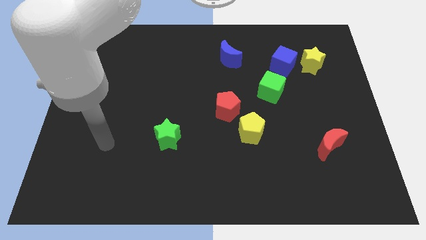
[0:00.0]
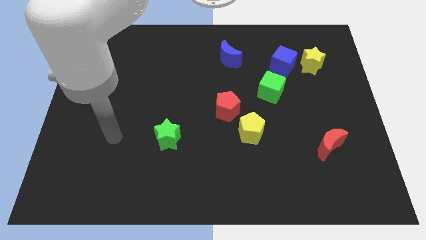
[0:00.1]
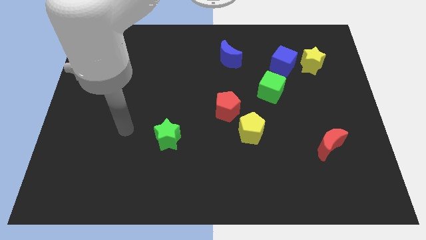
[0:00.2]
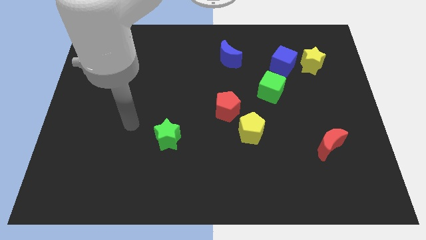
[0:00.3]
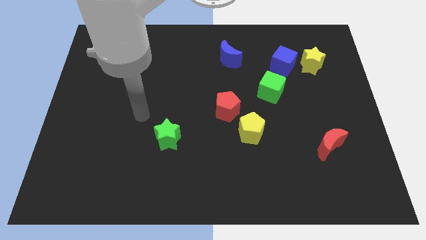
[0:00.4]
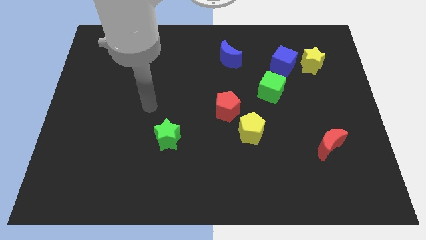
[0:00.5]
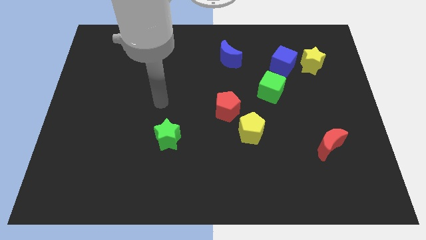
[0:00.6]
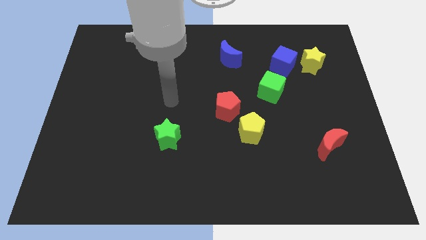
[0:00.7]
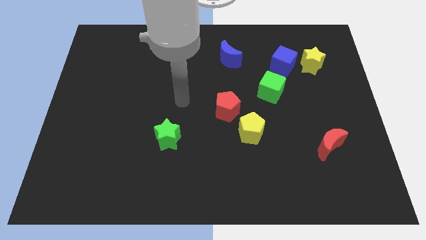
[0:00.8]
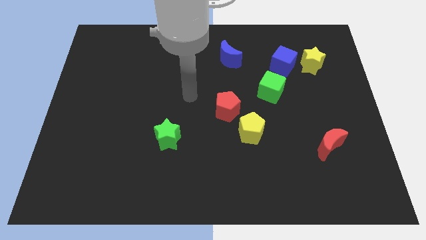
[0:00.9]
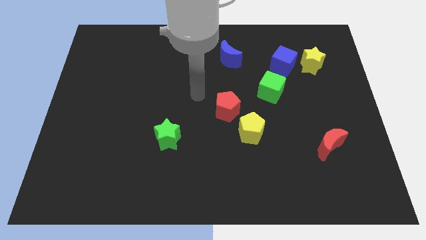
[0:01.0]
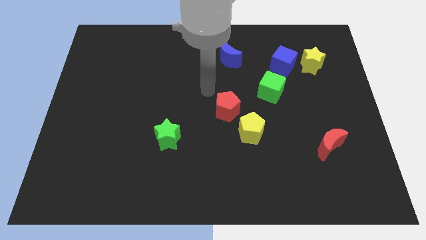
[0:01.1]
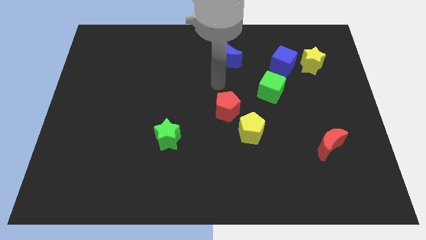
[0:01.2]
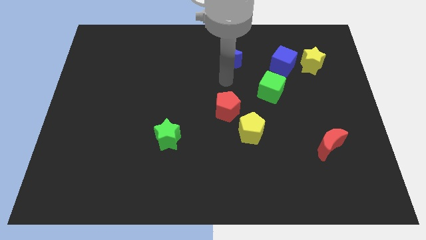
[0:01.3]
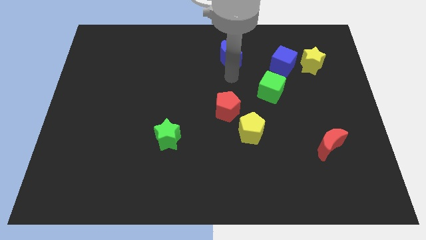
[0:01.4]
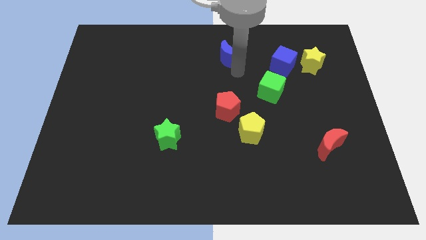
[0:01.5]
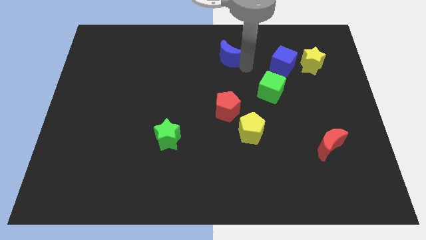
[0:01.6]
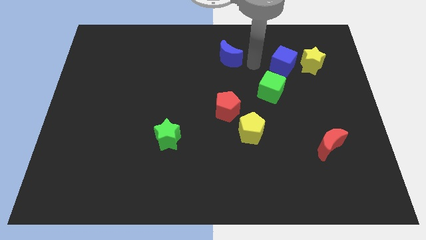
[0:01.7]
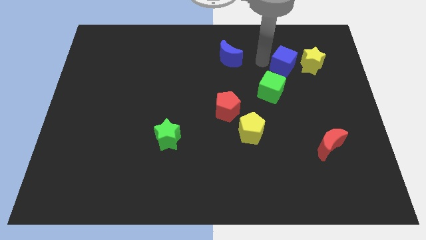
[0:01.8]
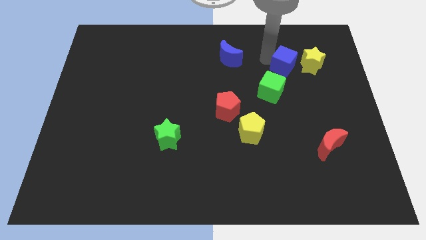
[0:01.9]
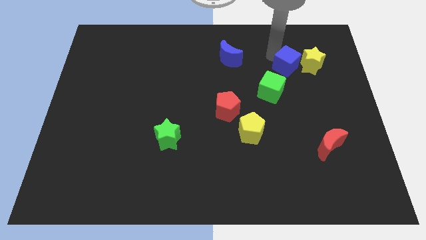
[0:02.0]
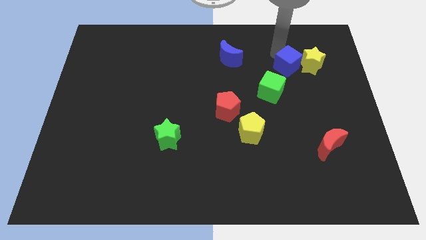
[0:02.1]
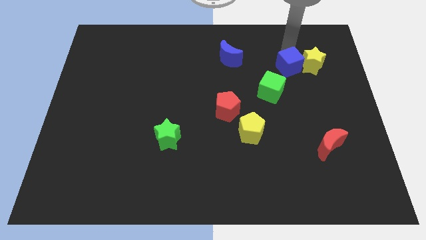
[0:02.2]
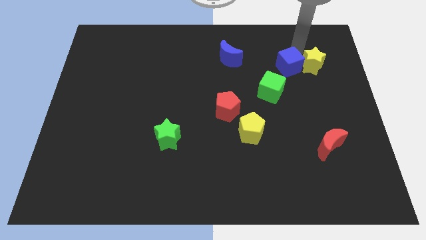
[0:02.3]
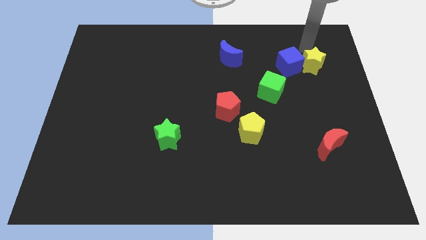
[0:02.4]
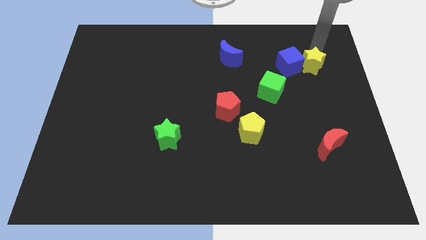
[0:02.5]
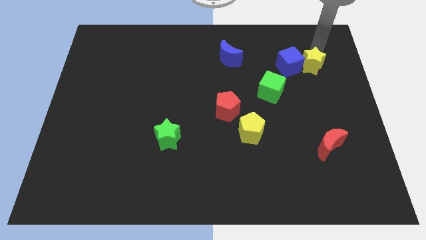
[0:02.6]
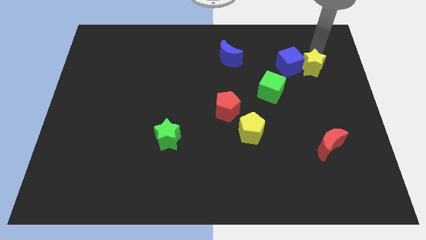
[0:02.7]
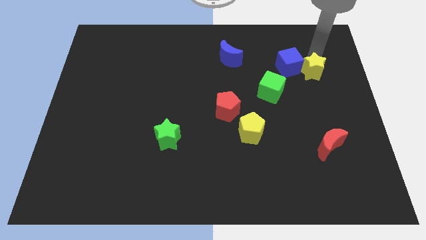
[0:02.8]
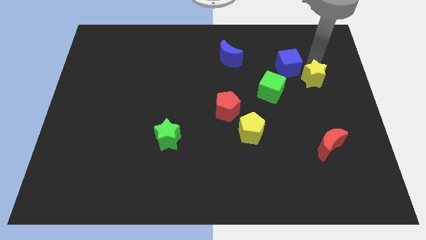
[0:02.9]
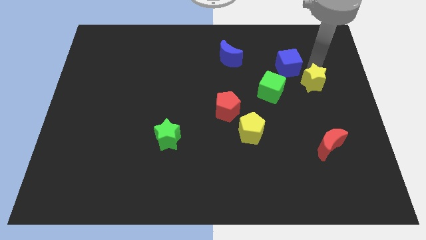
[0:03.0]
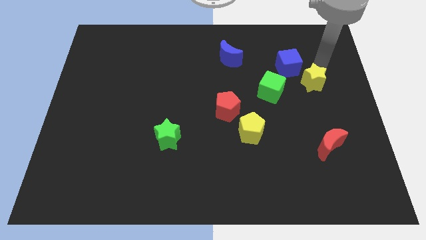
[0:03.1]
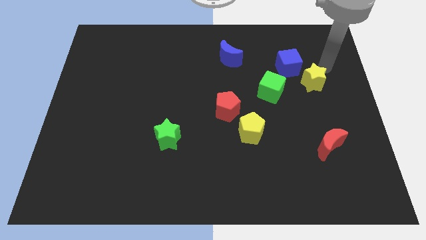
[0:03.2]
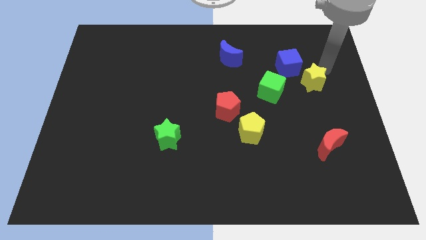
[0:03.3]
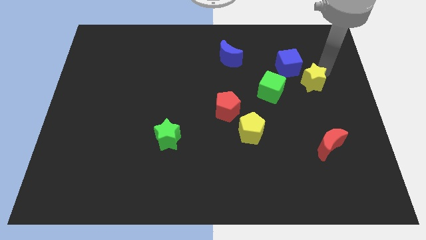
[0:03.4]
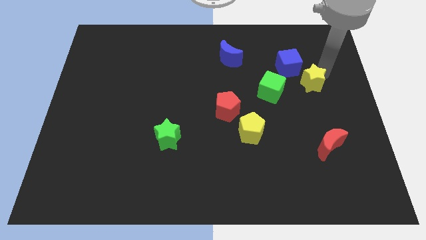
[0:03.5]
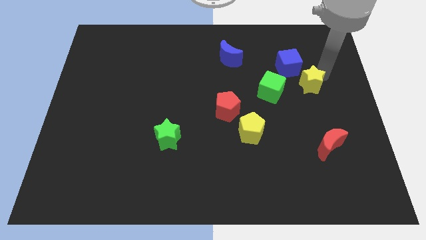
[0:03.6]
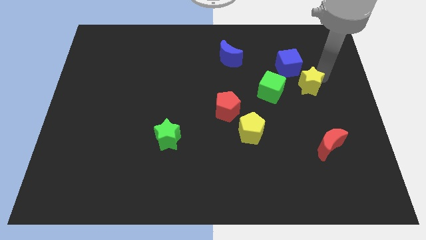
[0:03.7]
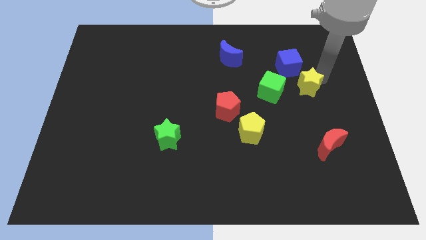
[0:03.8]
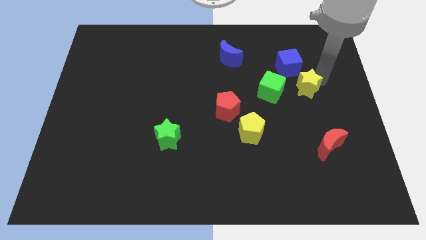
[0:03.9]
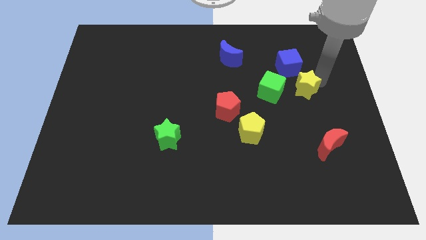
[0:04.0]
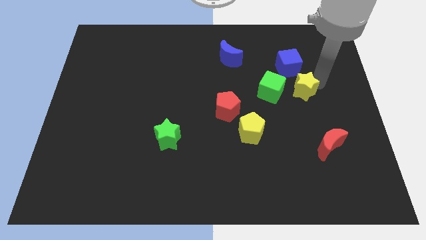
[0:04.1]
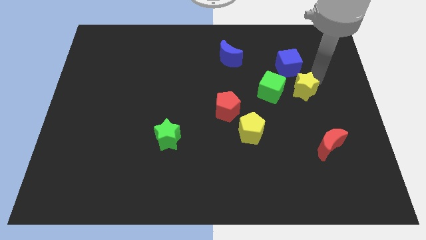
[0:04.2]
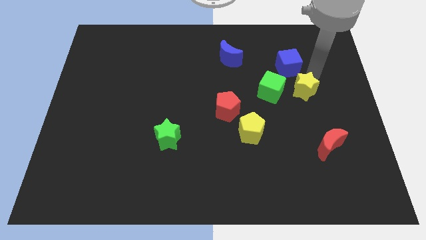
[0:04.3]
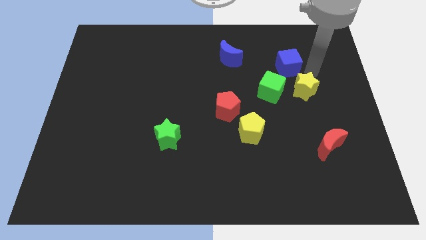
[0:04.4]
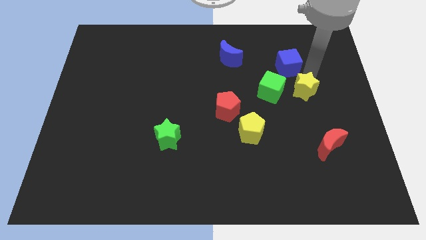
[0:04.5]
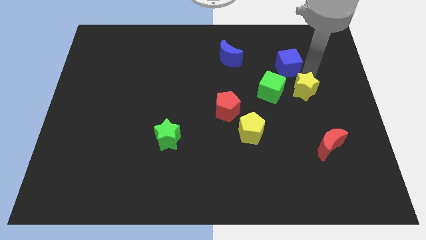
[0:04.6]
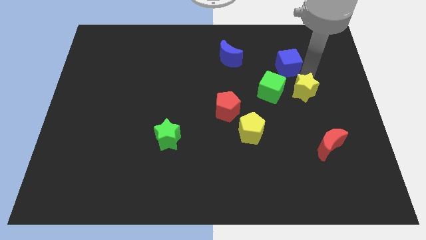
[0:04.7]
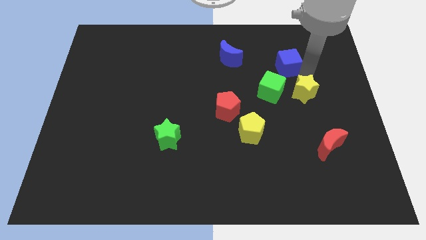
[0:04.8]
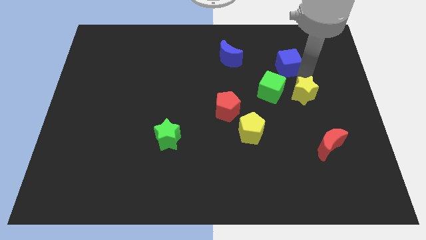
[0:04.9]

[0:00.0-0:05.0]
put the yellow star diagonally down and to the right of the green cube

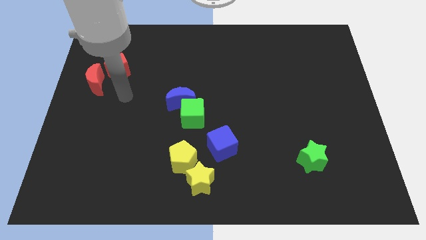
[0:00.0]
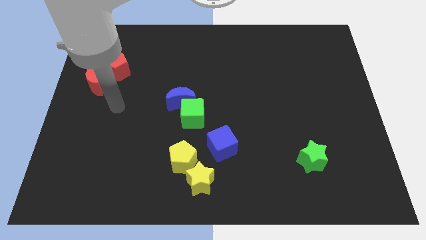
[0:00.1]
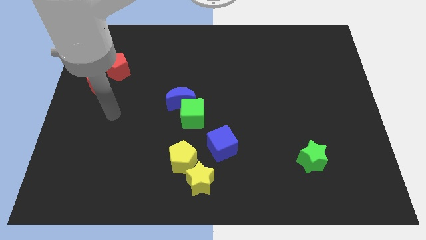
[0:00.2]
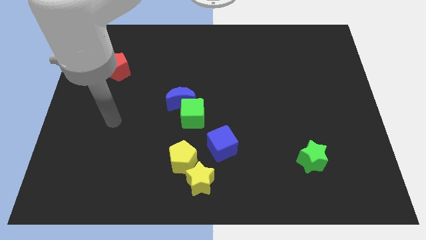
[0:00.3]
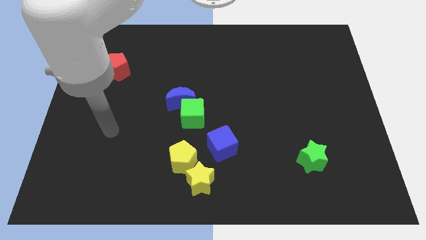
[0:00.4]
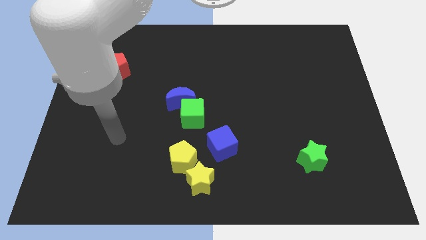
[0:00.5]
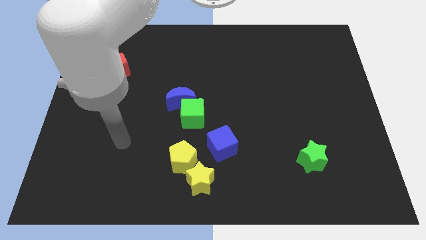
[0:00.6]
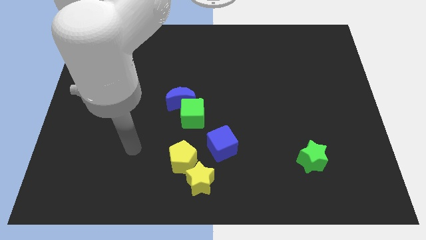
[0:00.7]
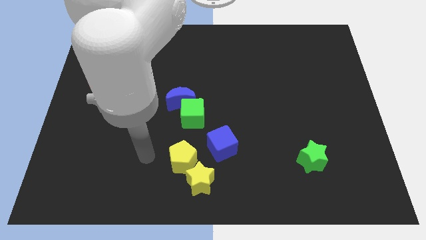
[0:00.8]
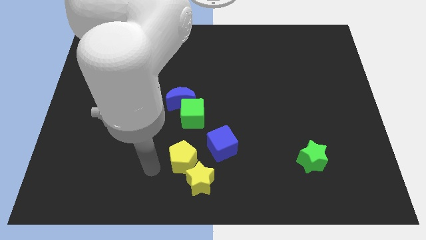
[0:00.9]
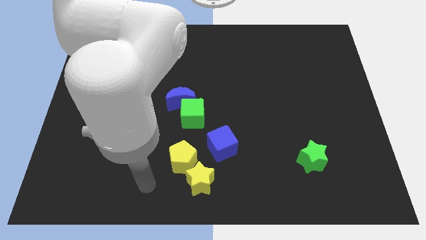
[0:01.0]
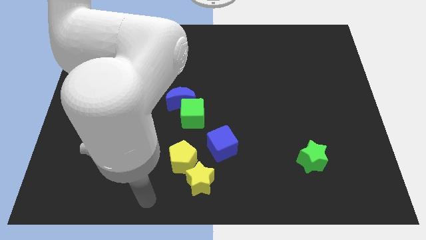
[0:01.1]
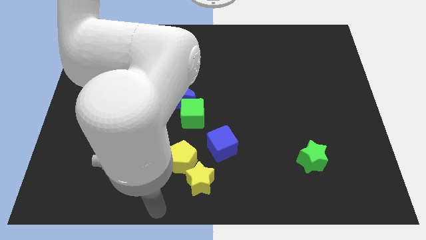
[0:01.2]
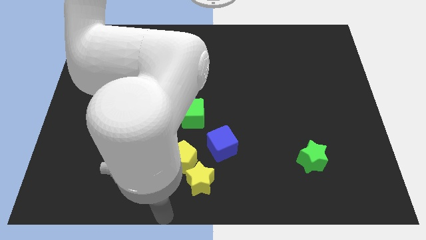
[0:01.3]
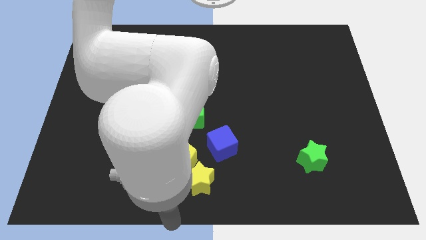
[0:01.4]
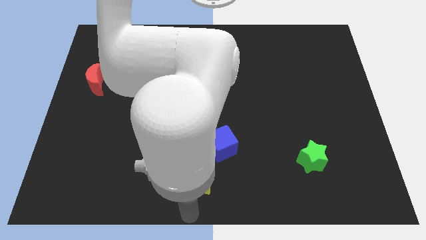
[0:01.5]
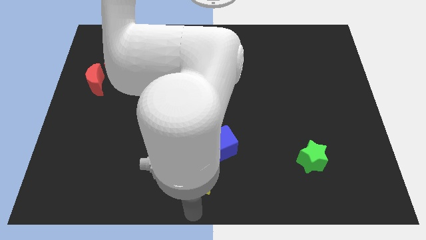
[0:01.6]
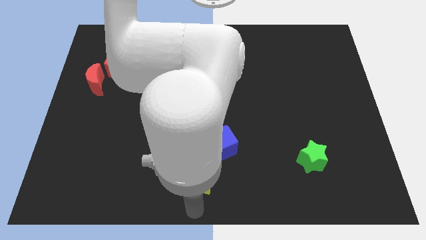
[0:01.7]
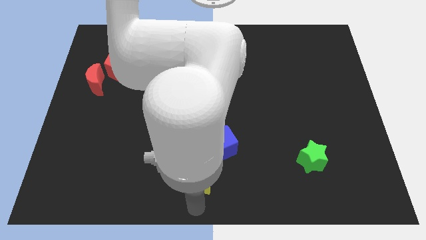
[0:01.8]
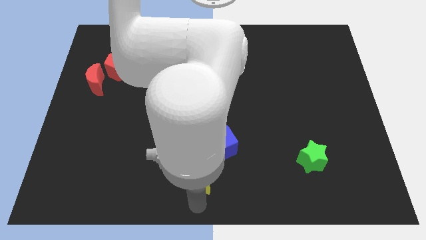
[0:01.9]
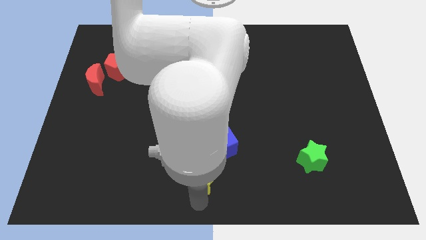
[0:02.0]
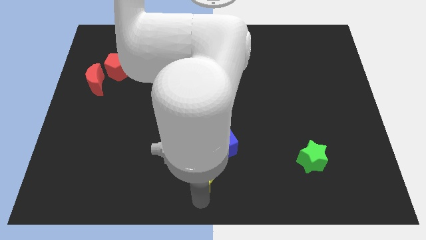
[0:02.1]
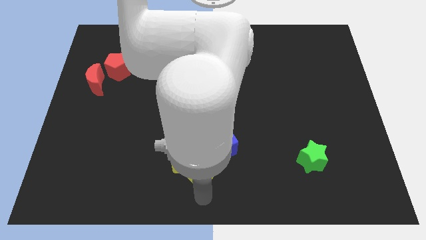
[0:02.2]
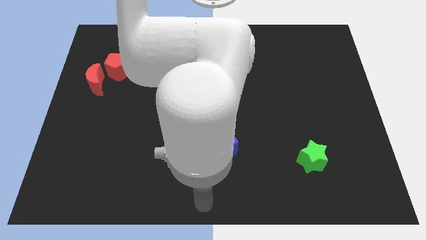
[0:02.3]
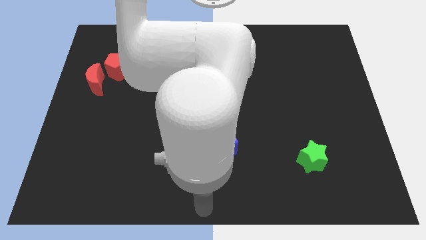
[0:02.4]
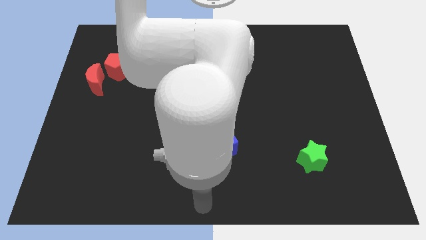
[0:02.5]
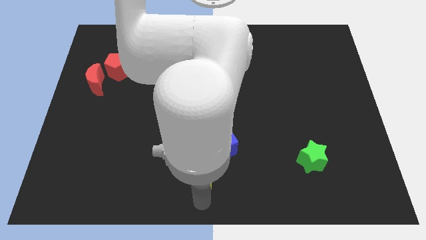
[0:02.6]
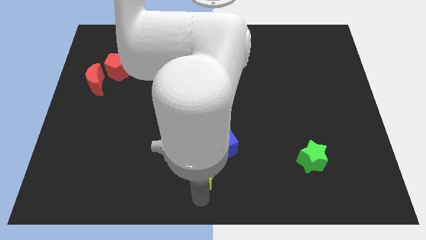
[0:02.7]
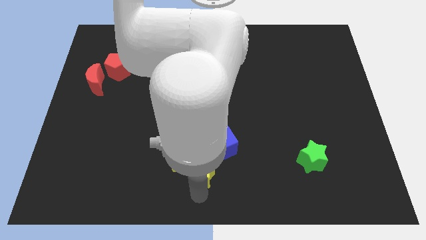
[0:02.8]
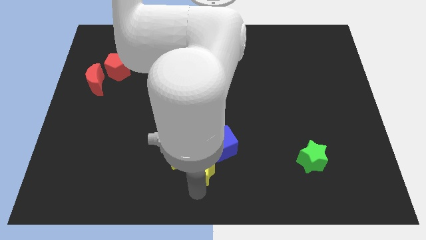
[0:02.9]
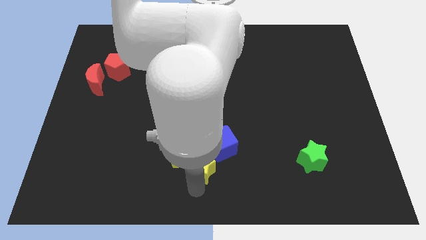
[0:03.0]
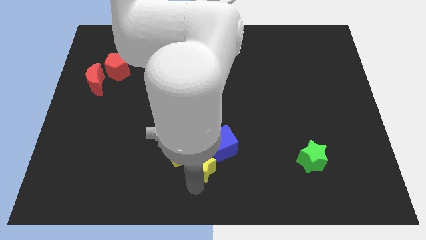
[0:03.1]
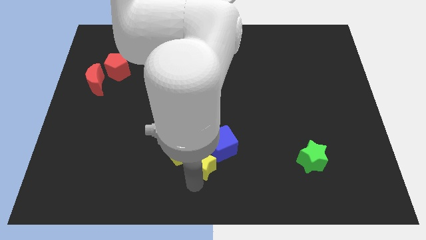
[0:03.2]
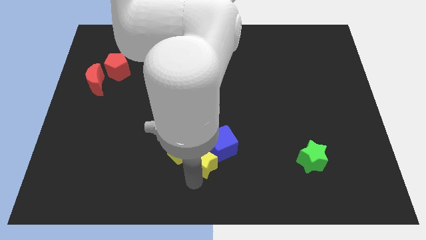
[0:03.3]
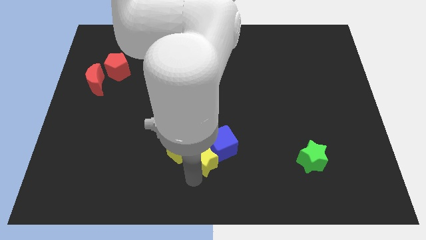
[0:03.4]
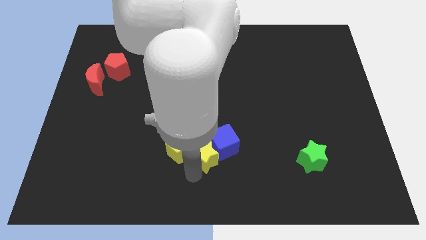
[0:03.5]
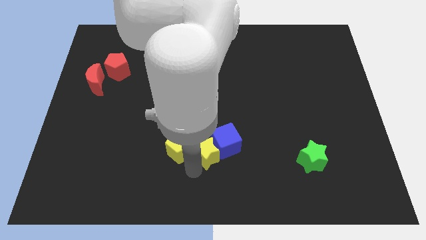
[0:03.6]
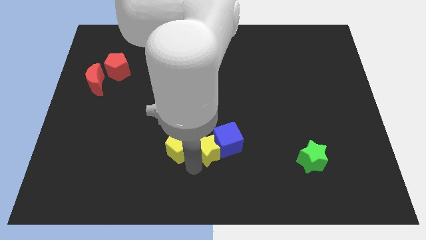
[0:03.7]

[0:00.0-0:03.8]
put the yellow star to the top right side of the yellow pentagon
